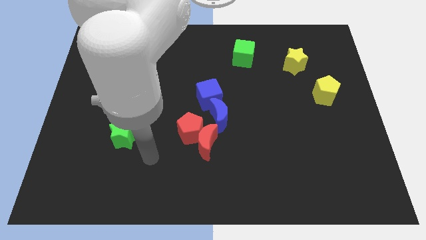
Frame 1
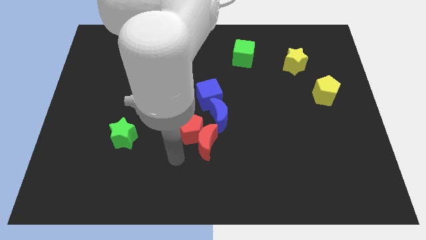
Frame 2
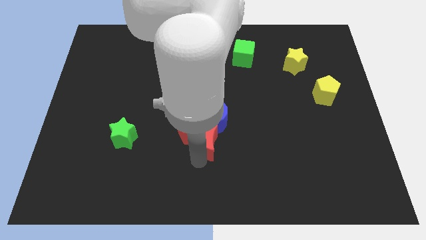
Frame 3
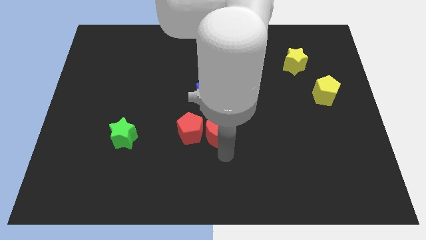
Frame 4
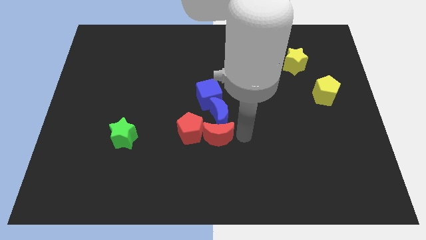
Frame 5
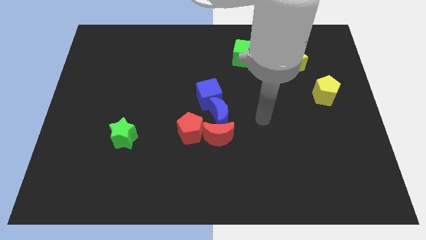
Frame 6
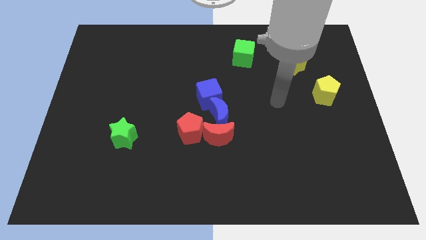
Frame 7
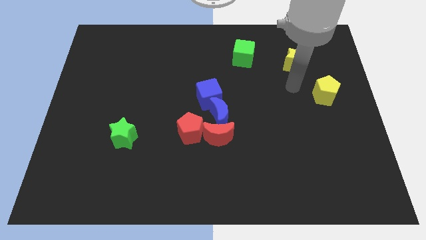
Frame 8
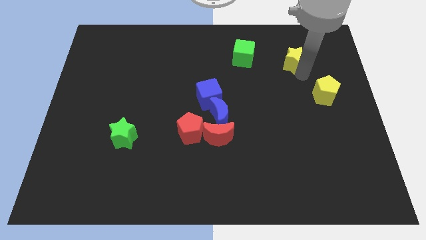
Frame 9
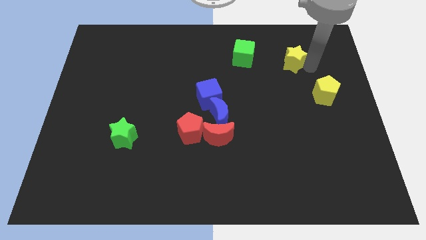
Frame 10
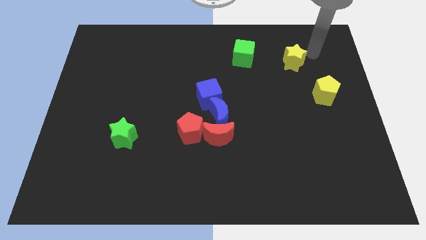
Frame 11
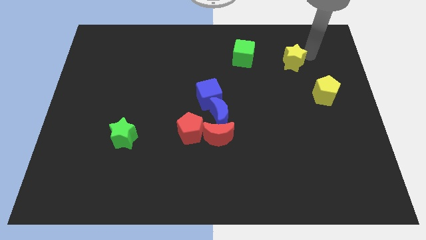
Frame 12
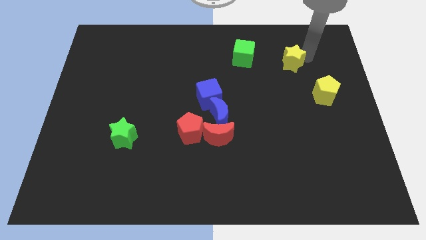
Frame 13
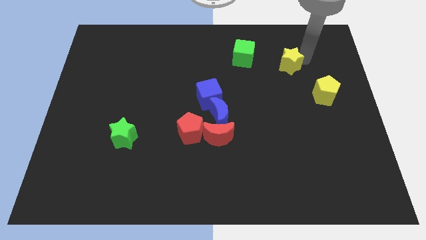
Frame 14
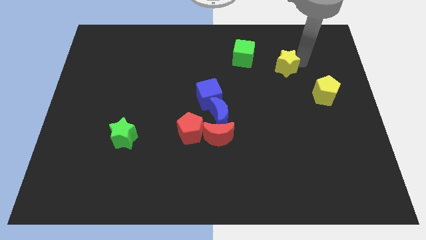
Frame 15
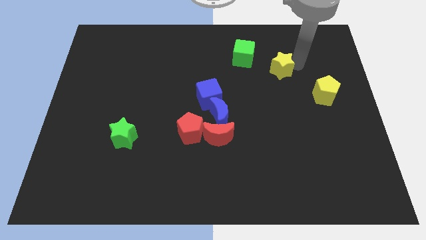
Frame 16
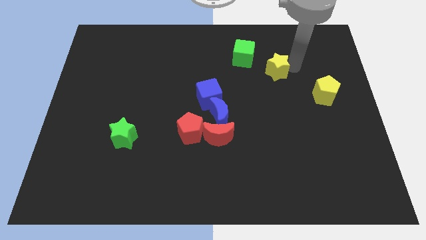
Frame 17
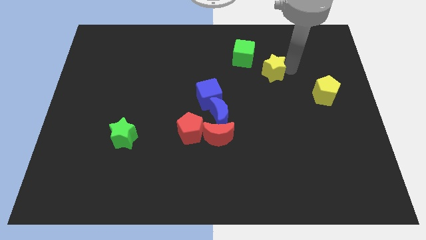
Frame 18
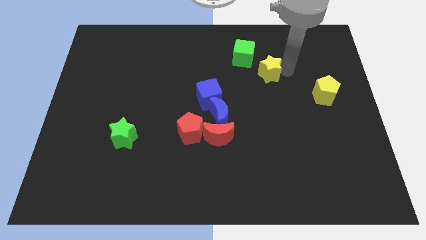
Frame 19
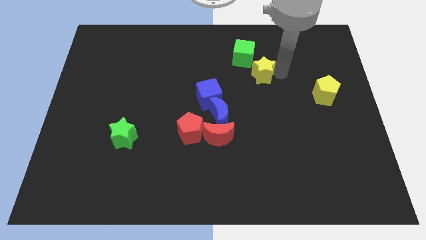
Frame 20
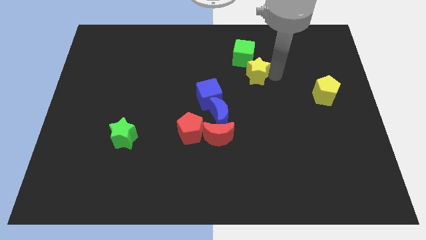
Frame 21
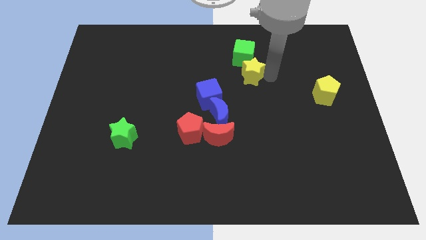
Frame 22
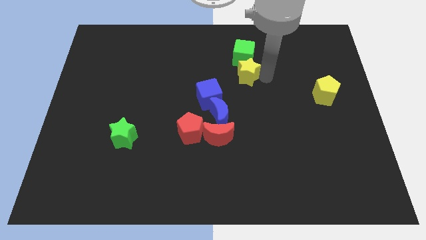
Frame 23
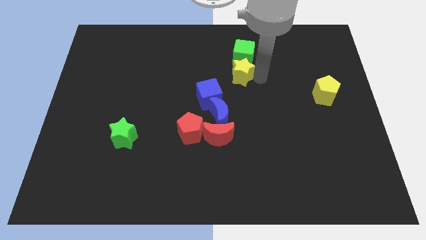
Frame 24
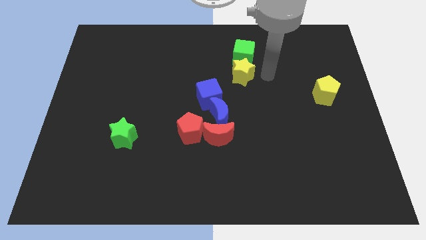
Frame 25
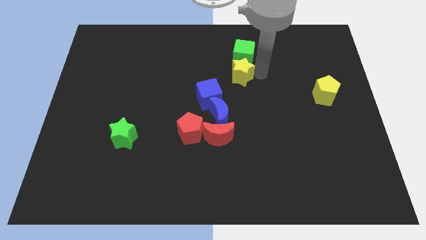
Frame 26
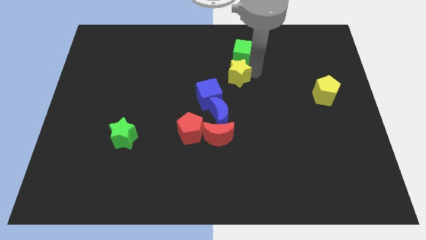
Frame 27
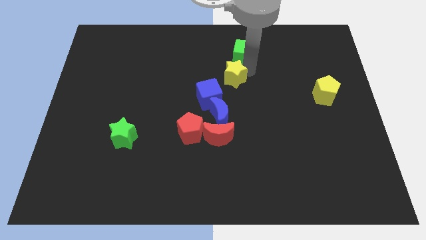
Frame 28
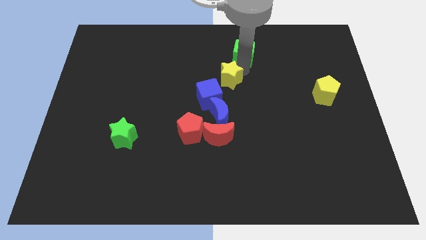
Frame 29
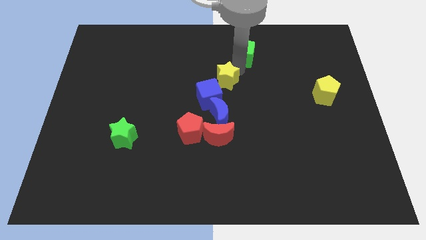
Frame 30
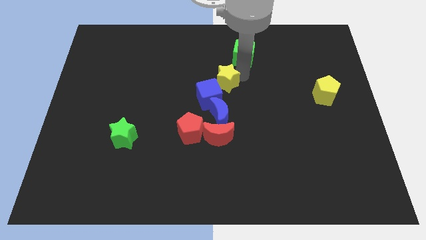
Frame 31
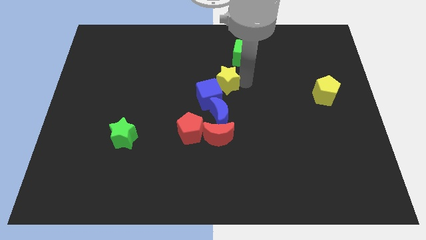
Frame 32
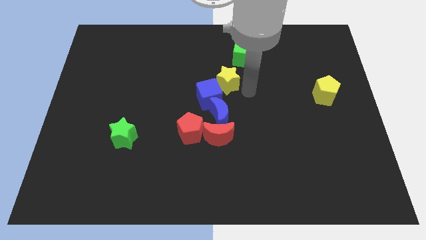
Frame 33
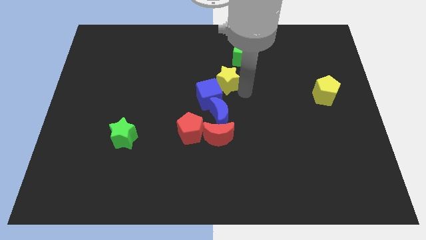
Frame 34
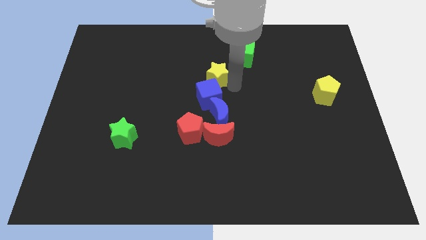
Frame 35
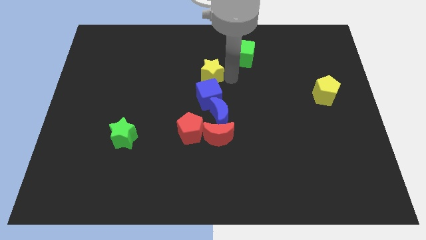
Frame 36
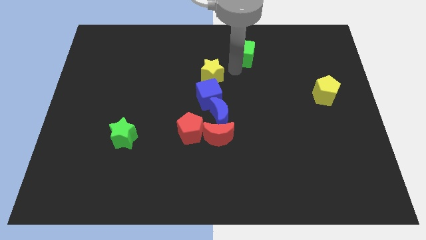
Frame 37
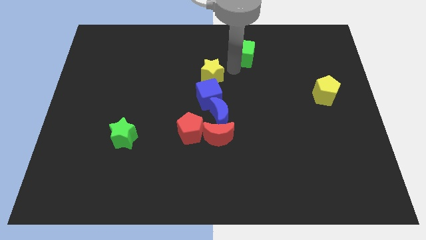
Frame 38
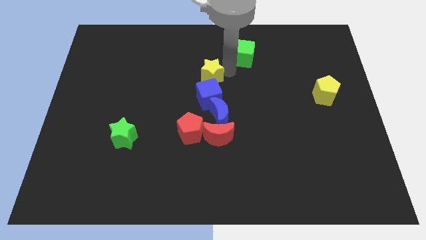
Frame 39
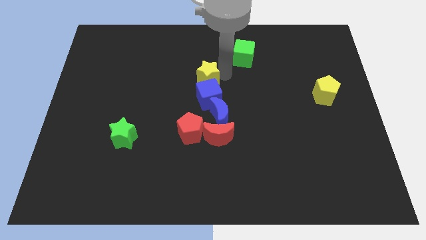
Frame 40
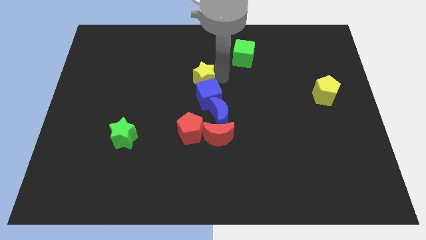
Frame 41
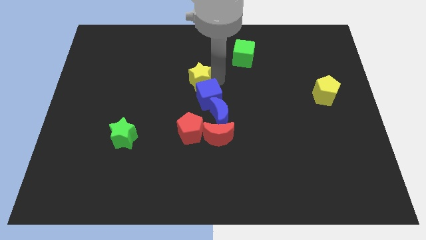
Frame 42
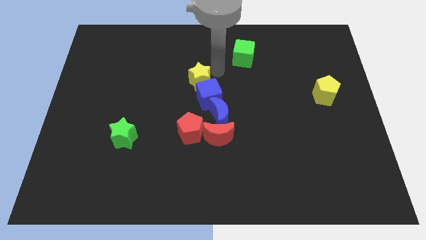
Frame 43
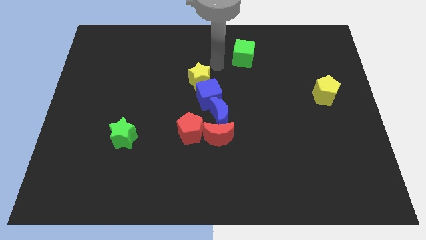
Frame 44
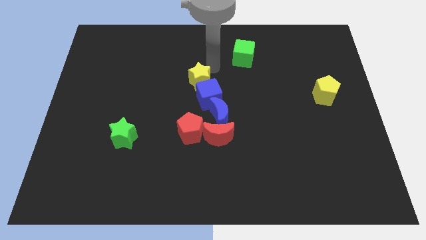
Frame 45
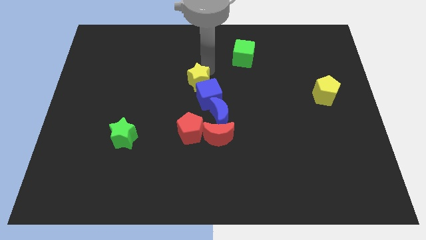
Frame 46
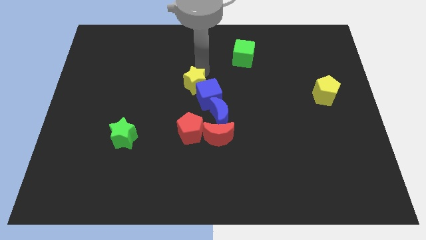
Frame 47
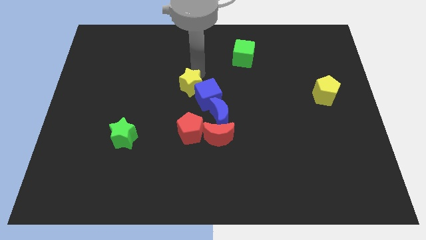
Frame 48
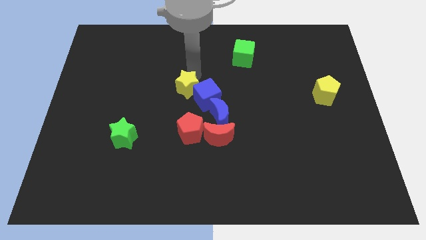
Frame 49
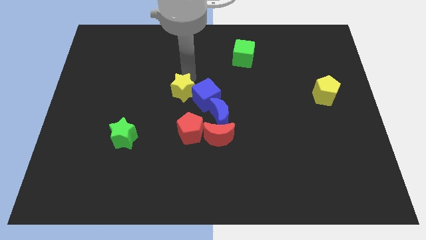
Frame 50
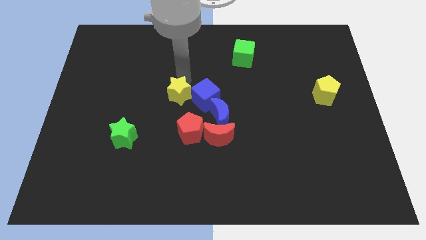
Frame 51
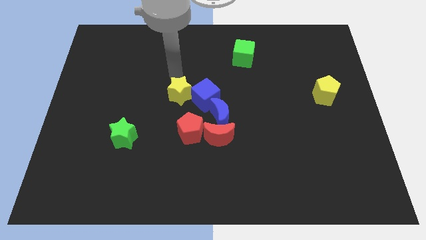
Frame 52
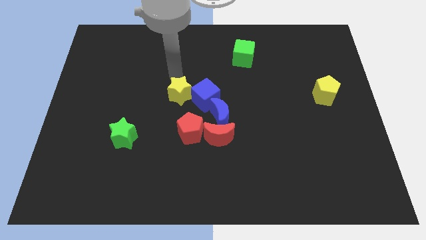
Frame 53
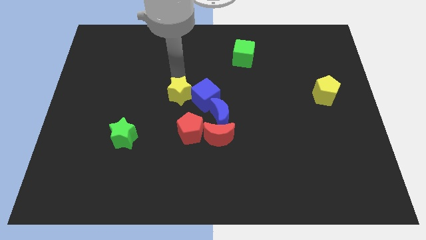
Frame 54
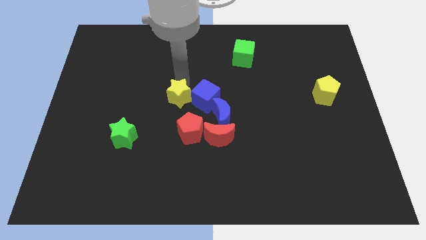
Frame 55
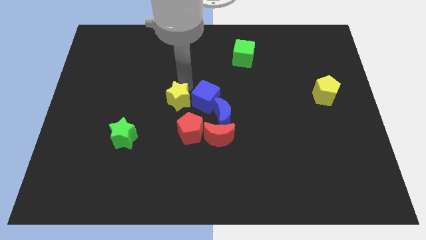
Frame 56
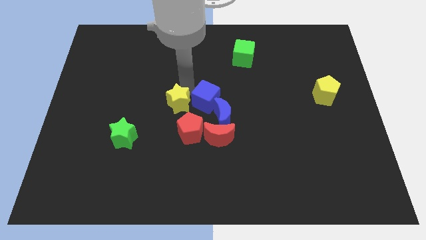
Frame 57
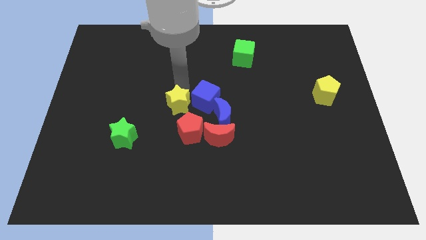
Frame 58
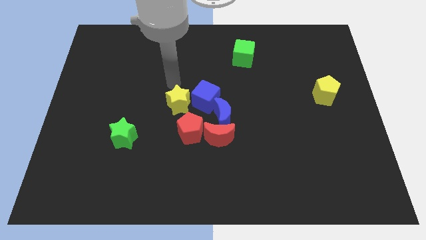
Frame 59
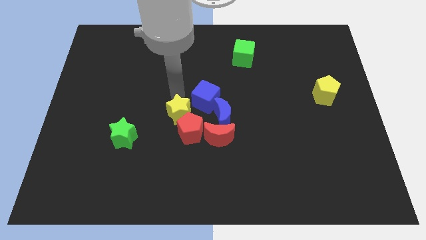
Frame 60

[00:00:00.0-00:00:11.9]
slide the yellow star to the red pentagon
